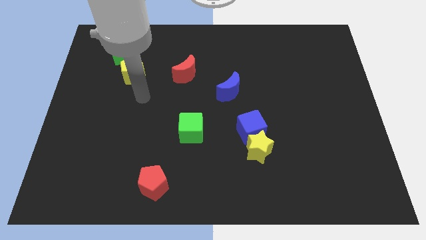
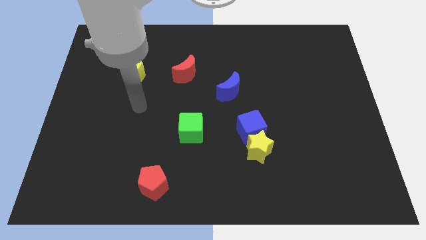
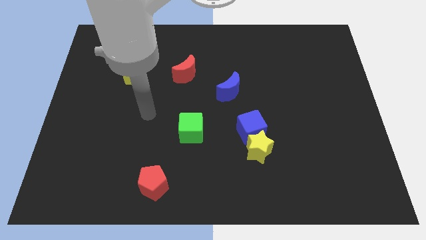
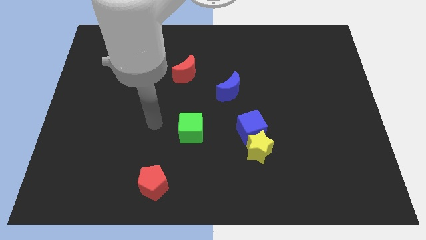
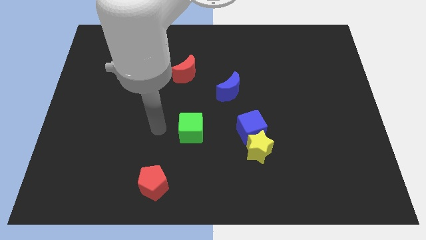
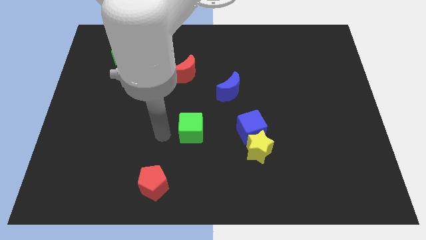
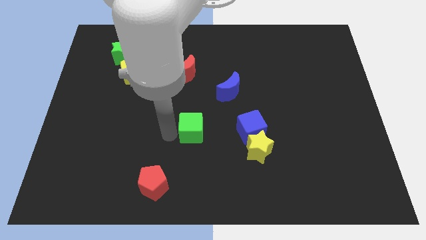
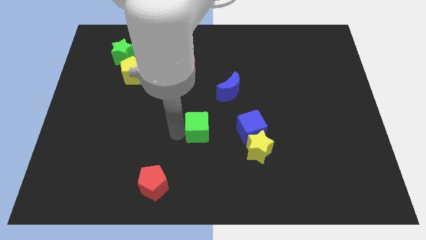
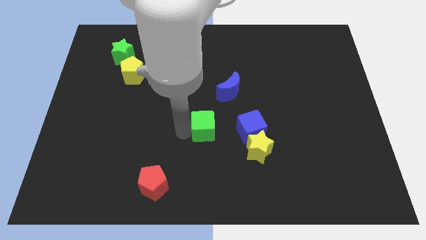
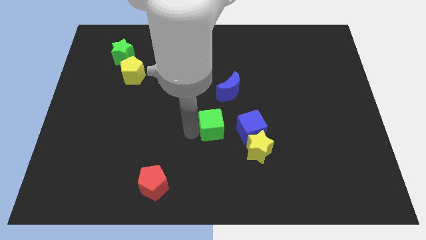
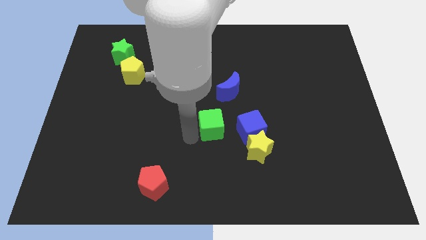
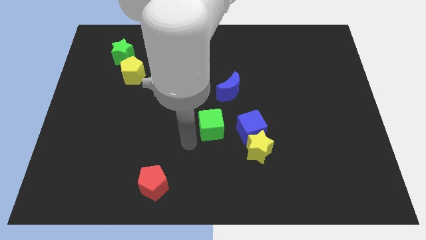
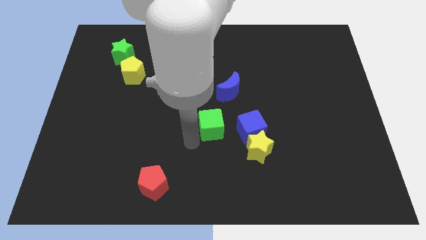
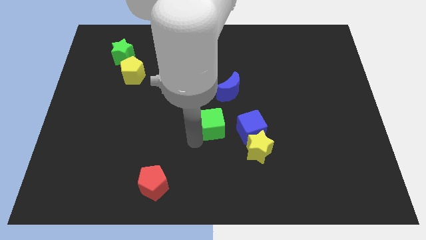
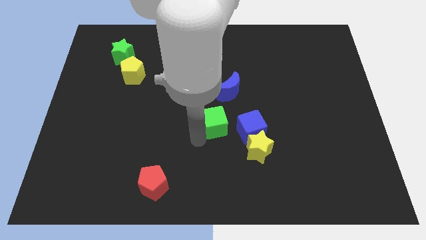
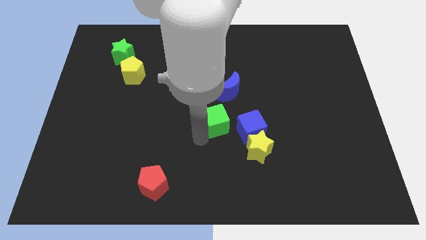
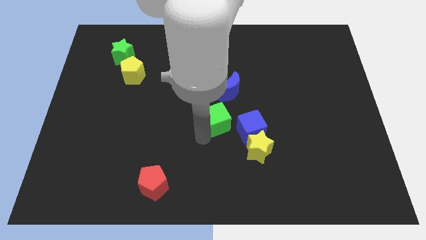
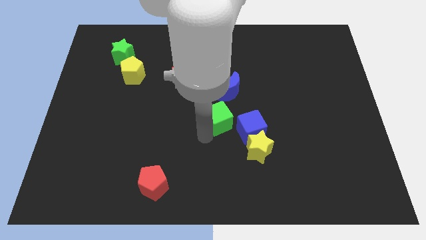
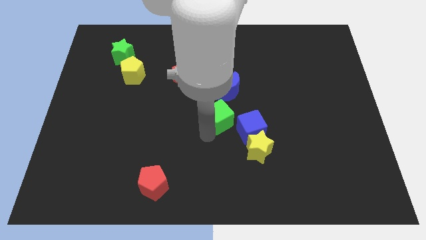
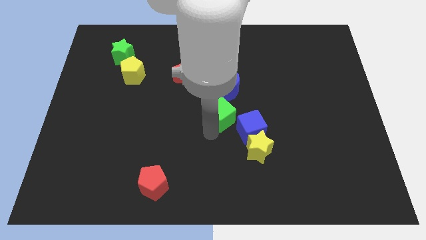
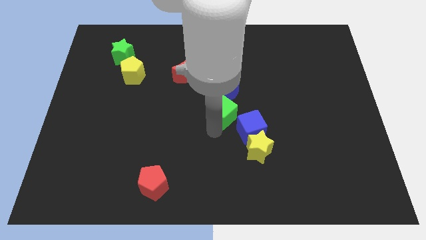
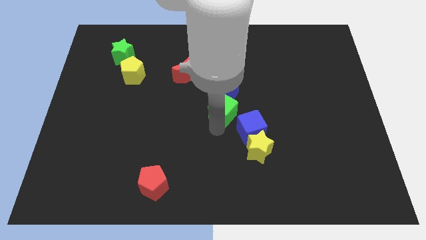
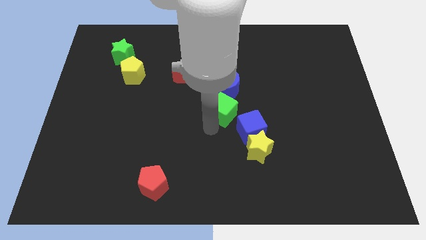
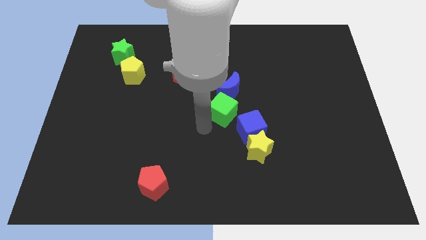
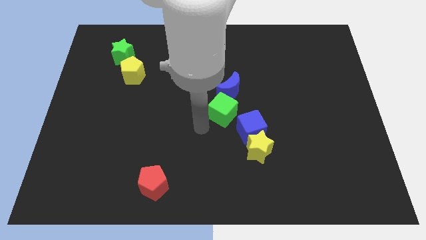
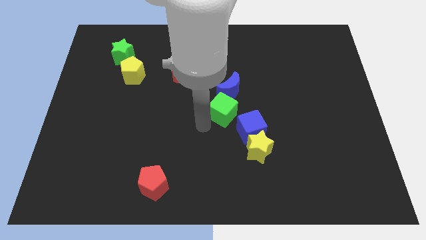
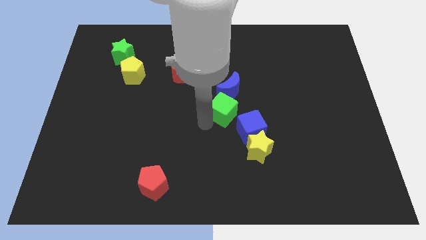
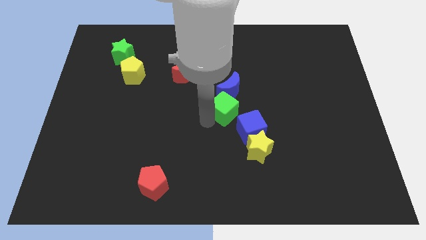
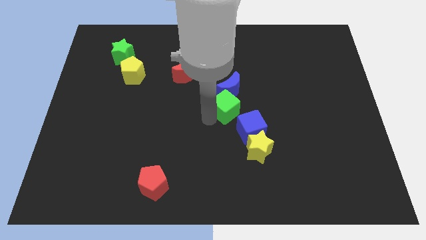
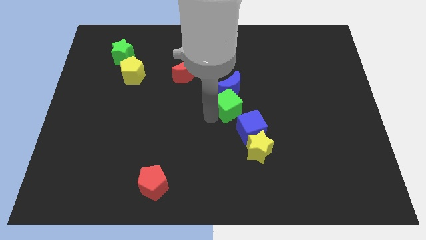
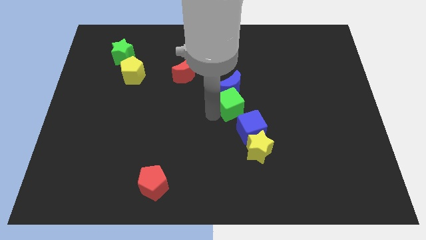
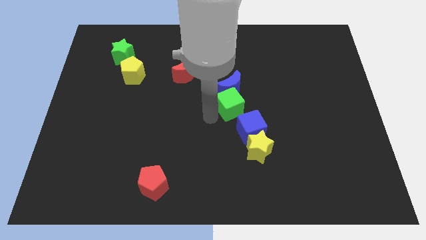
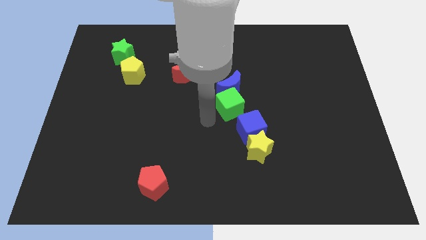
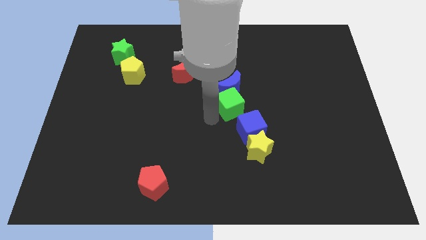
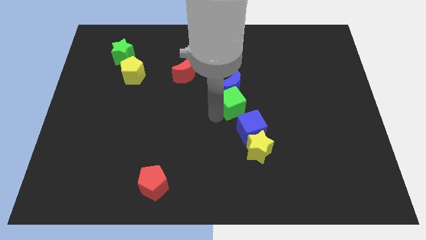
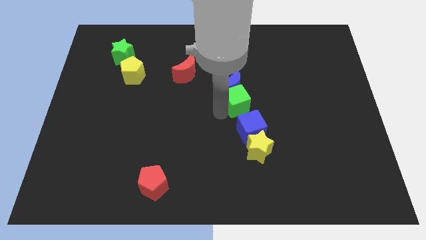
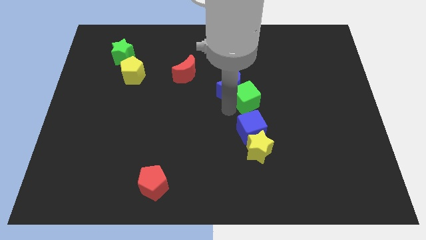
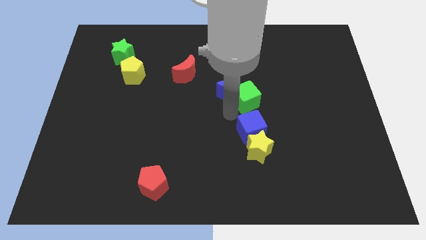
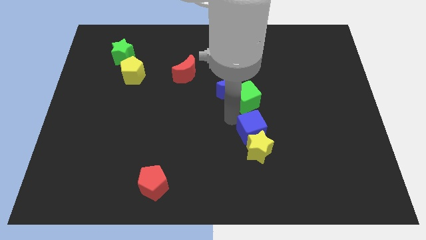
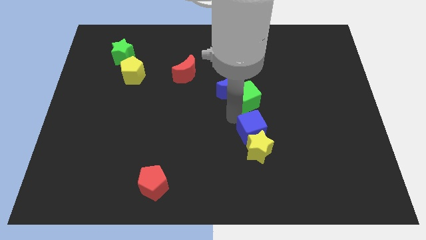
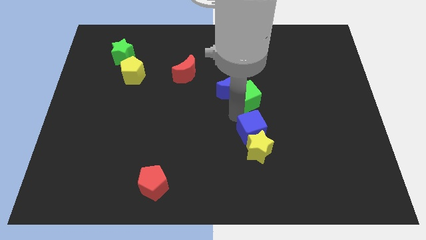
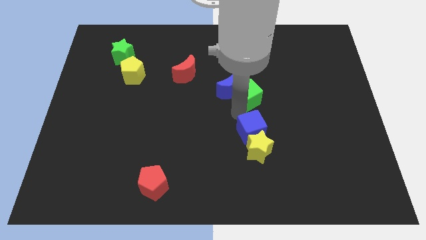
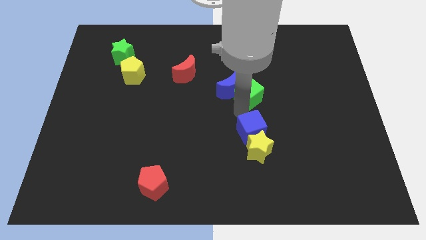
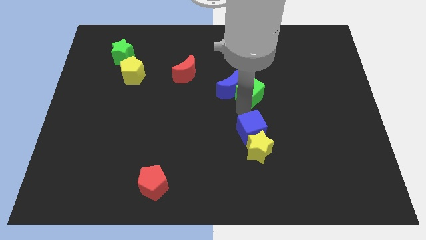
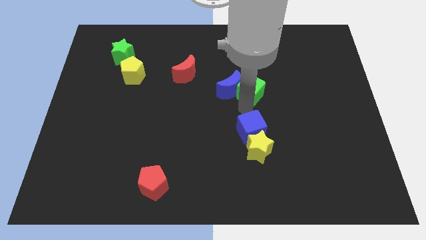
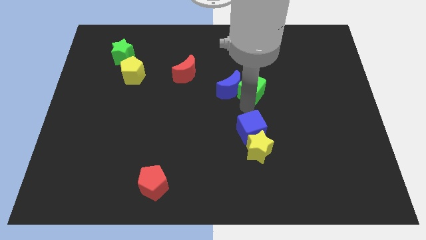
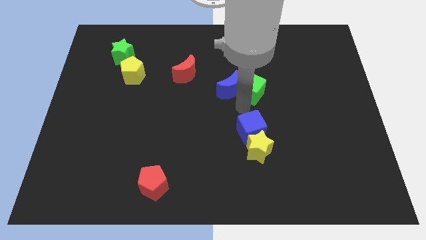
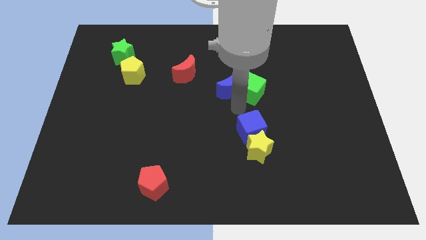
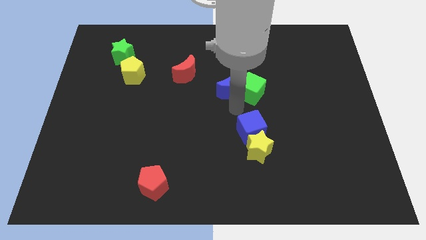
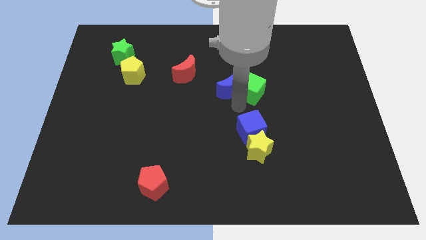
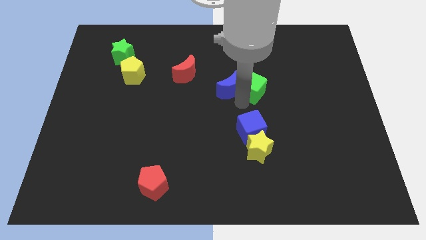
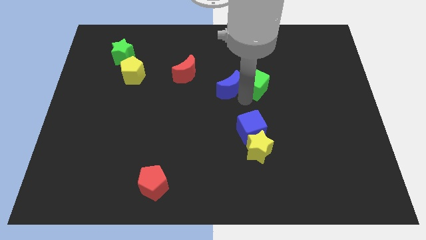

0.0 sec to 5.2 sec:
push the green cube up and right

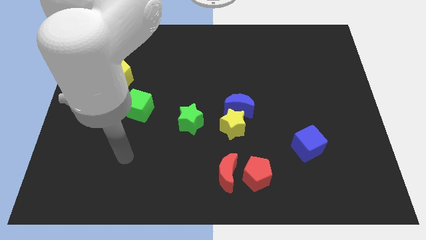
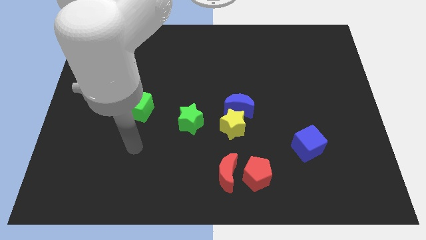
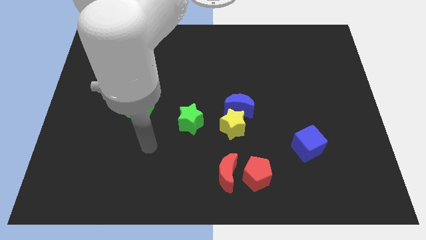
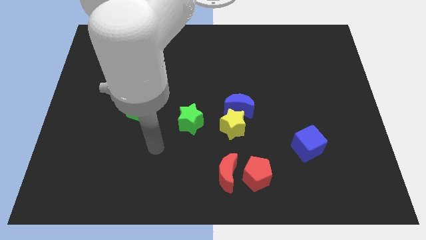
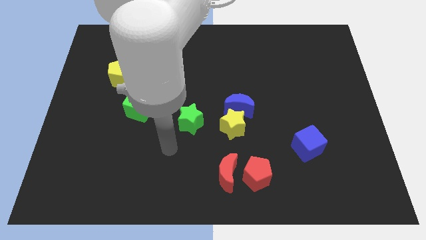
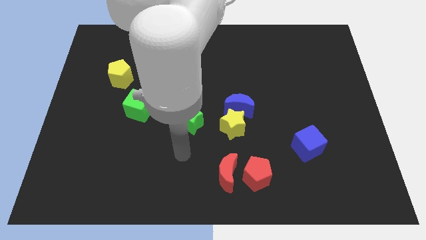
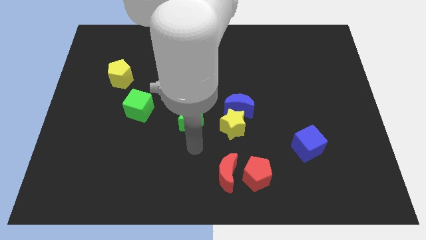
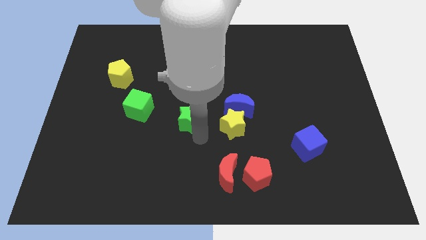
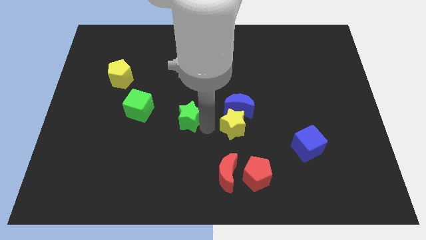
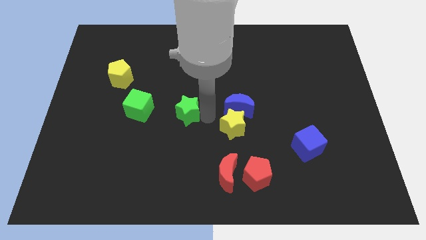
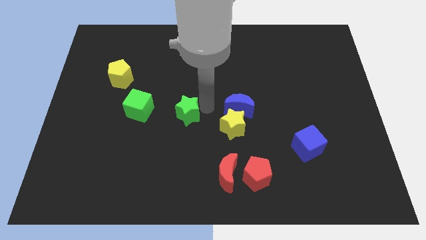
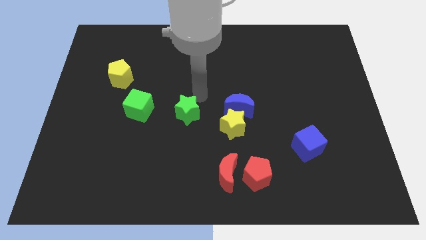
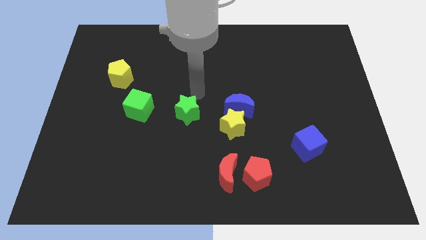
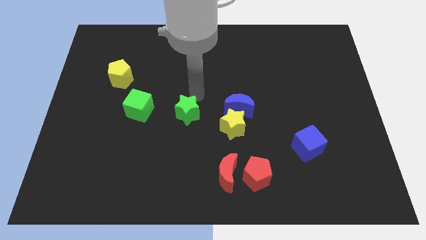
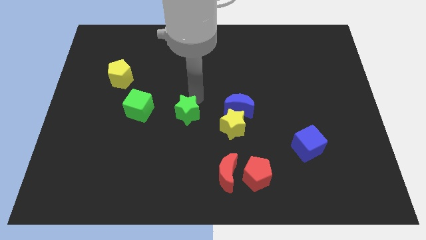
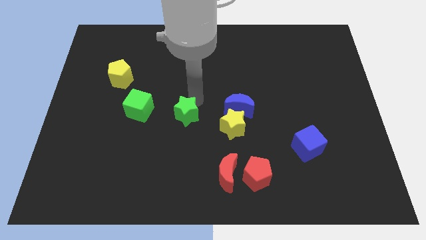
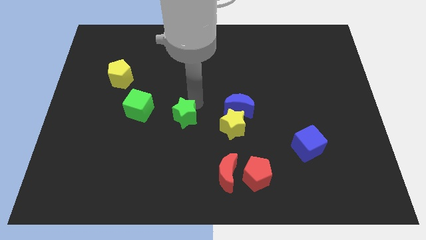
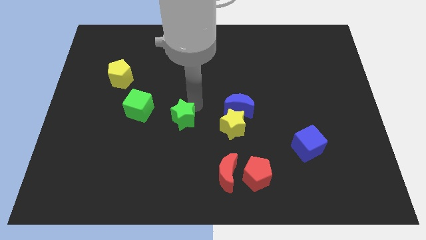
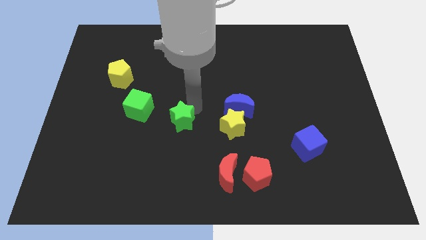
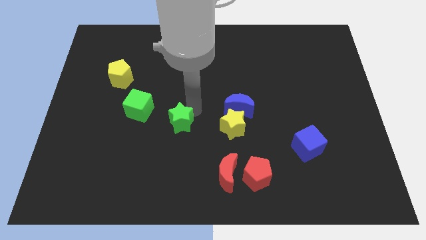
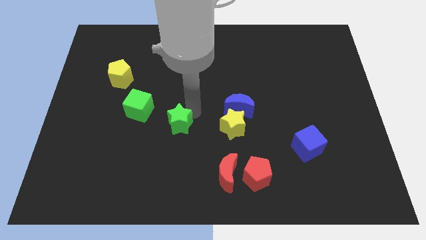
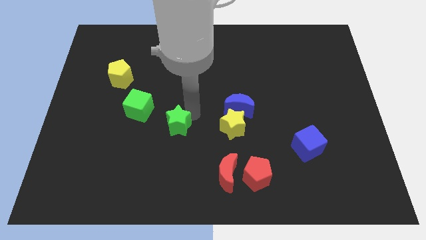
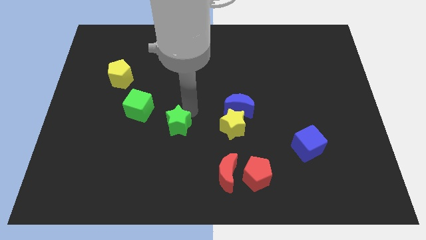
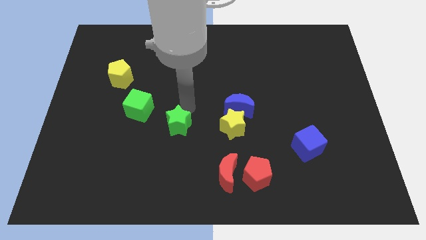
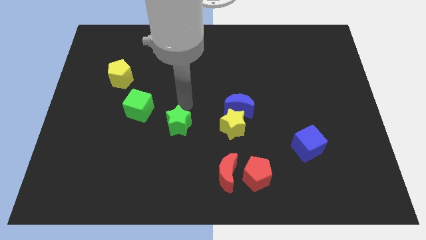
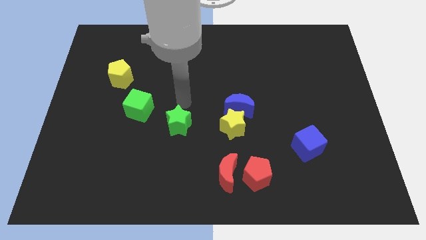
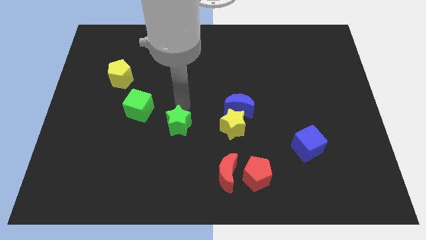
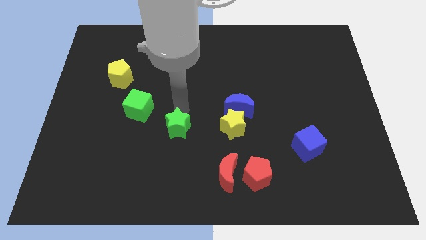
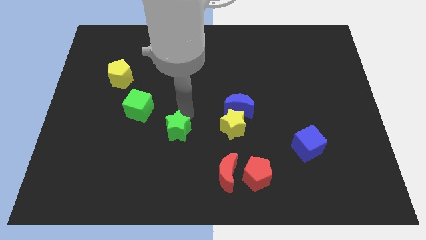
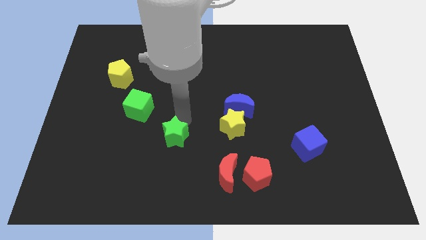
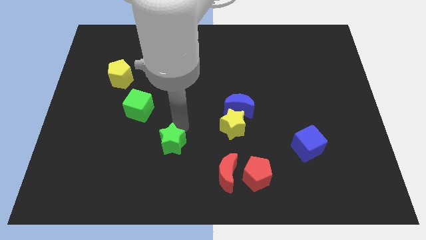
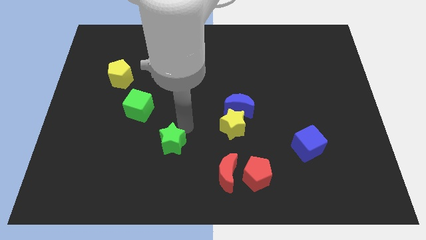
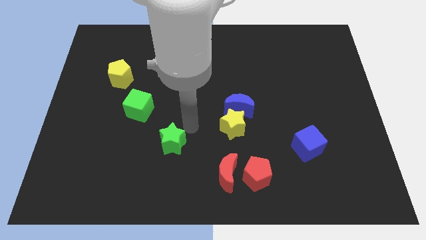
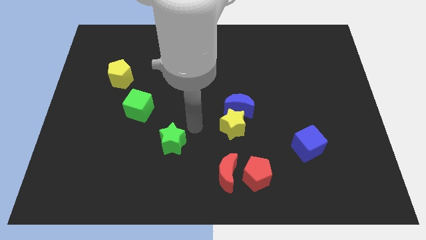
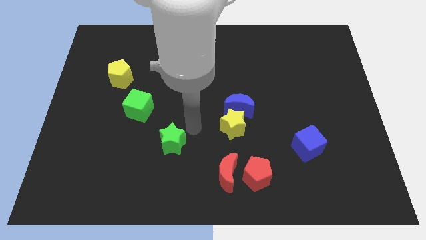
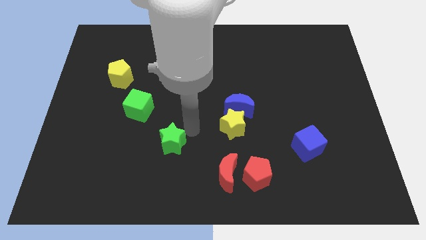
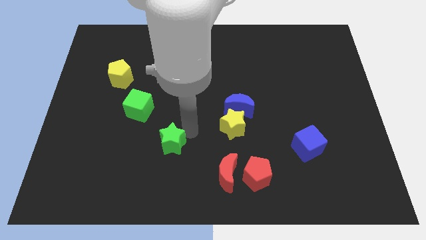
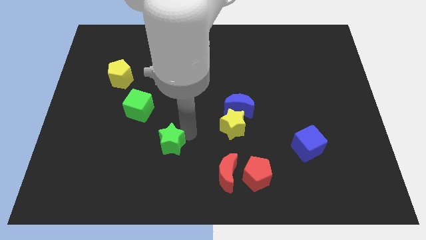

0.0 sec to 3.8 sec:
slide the green star a little bit down and left diagonally
